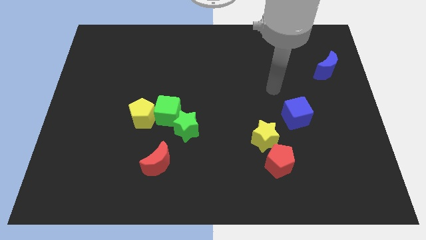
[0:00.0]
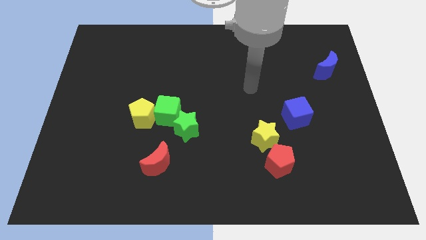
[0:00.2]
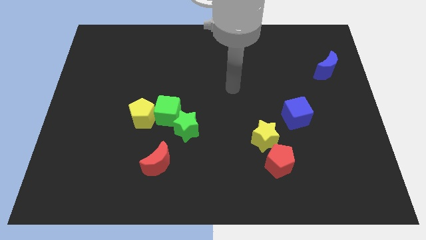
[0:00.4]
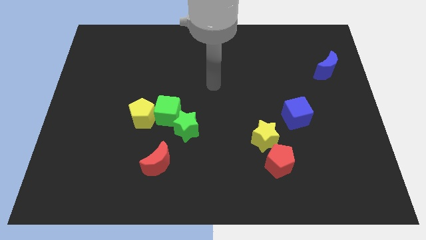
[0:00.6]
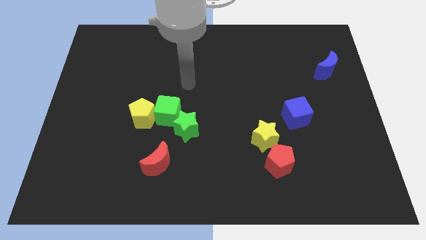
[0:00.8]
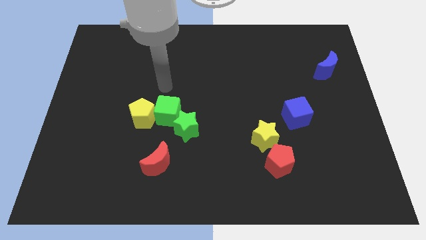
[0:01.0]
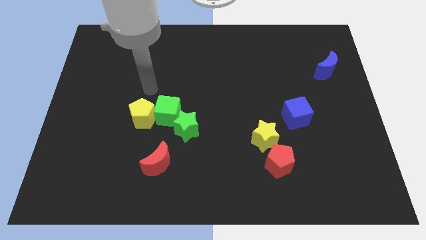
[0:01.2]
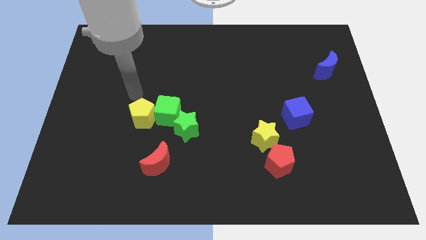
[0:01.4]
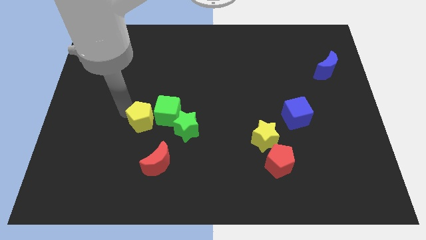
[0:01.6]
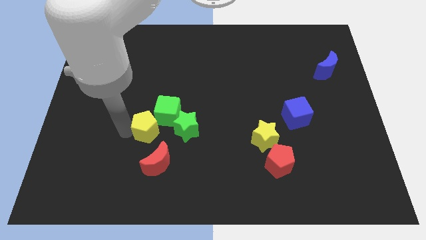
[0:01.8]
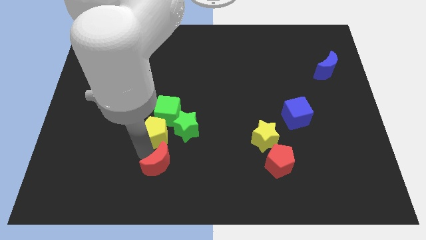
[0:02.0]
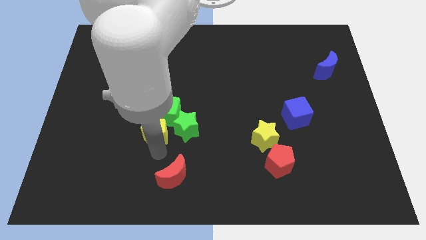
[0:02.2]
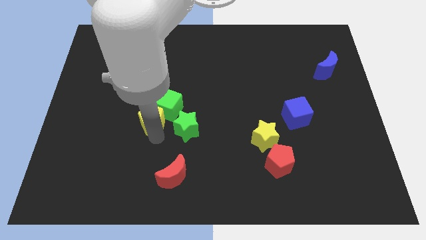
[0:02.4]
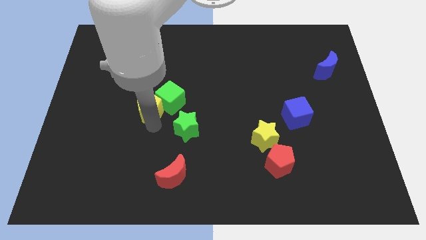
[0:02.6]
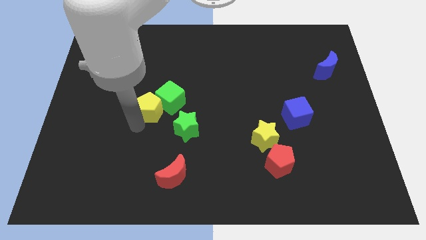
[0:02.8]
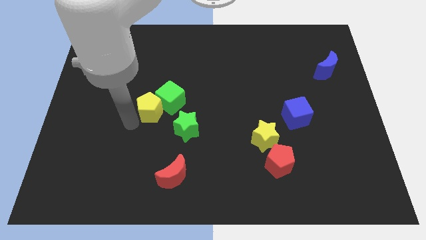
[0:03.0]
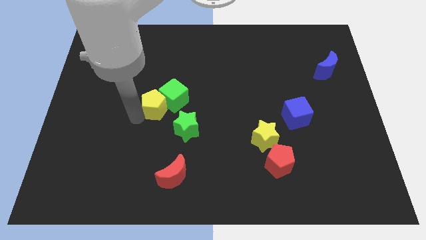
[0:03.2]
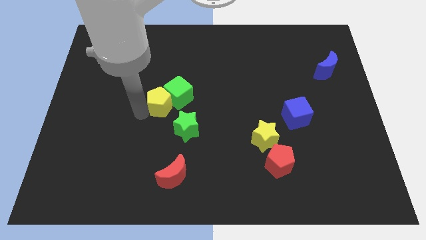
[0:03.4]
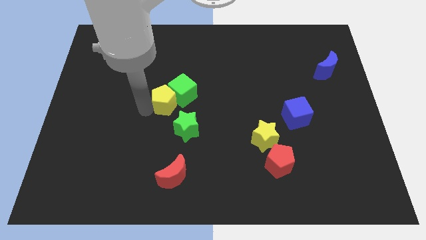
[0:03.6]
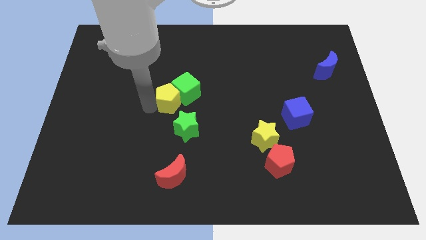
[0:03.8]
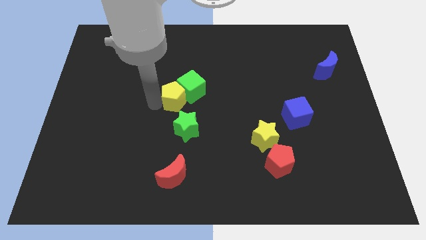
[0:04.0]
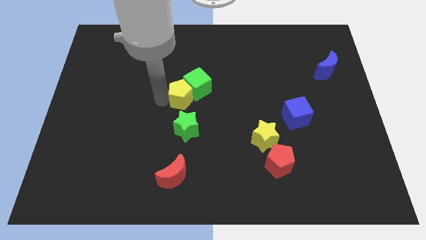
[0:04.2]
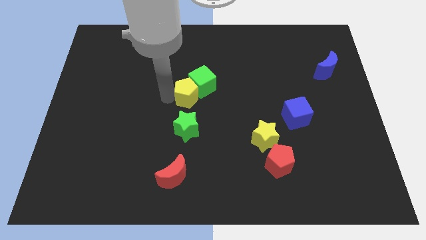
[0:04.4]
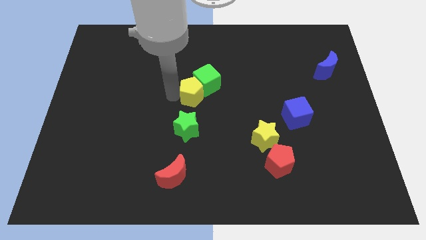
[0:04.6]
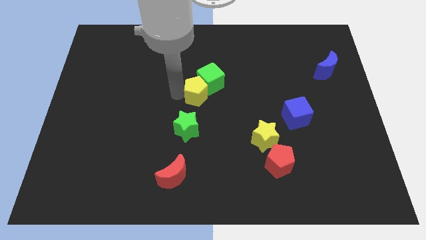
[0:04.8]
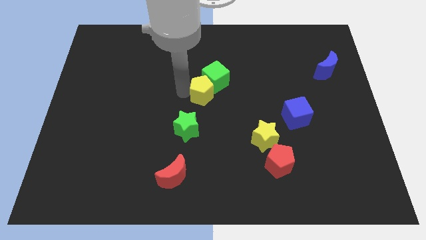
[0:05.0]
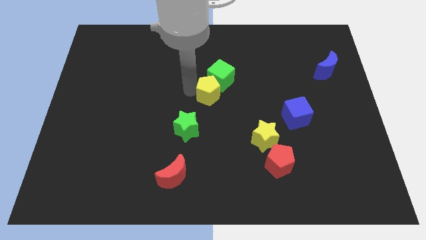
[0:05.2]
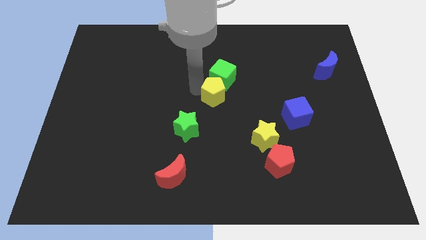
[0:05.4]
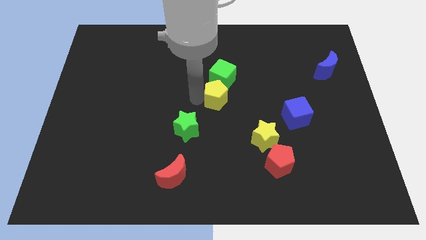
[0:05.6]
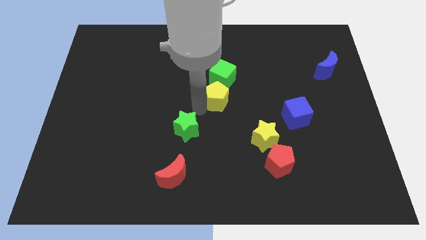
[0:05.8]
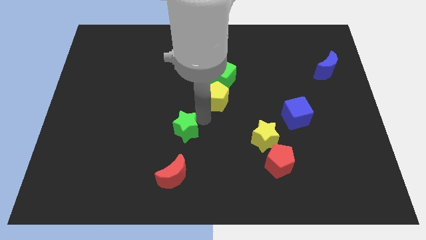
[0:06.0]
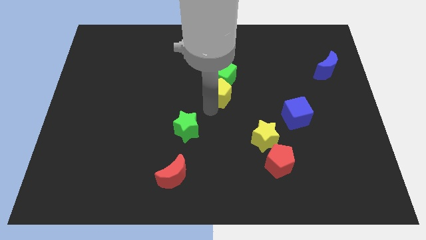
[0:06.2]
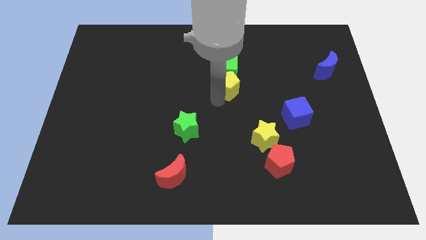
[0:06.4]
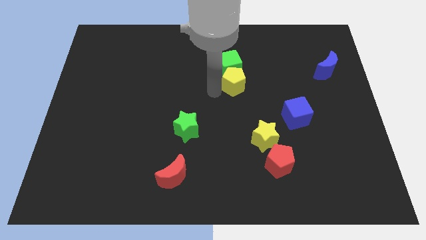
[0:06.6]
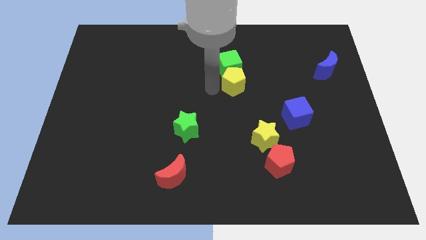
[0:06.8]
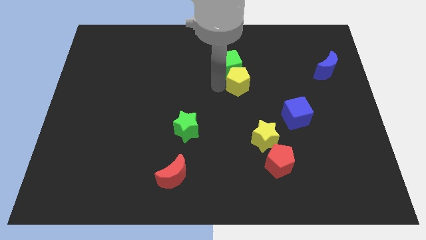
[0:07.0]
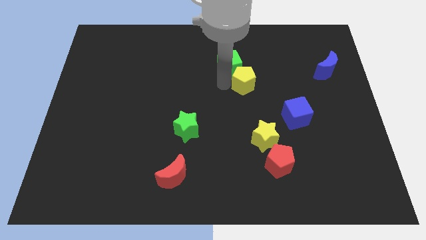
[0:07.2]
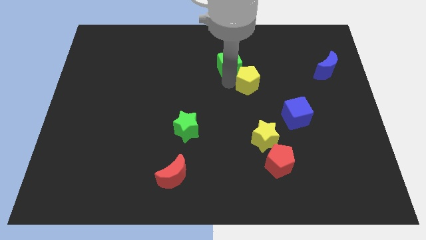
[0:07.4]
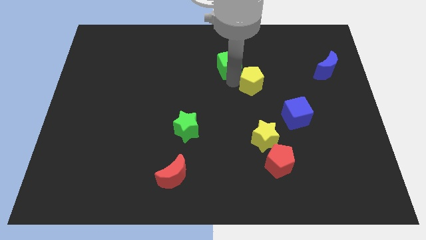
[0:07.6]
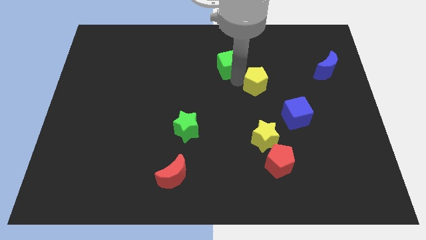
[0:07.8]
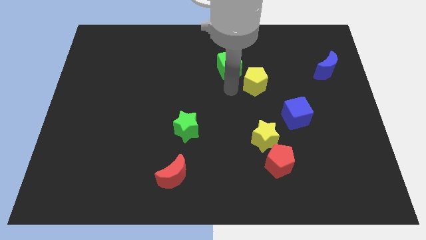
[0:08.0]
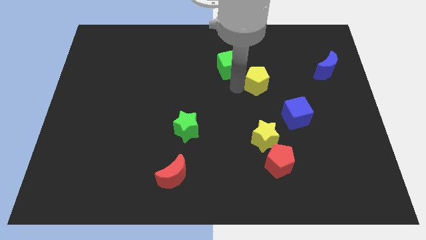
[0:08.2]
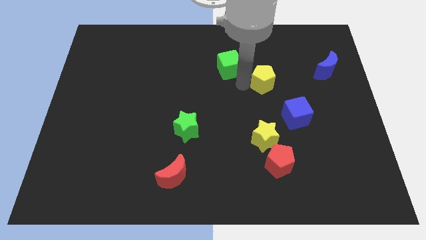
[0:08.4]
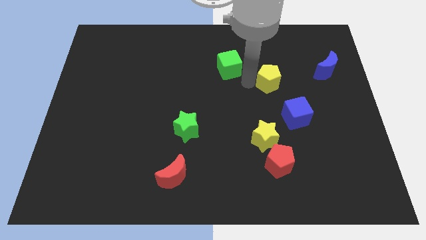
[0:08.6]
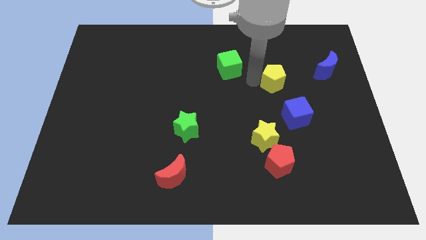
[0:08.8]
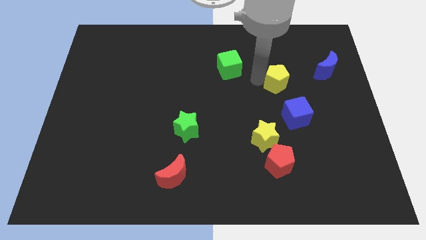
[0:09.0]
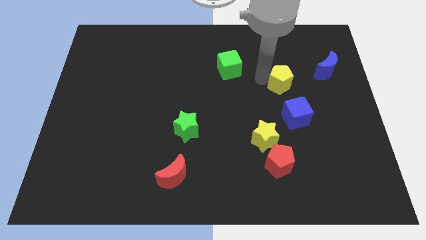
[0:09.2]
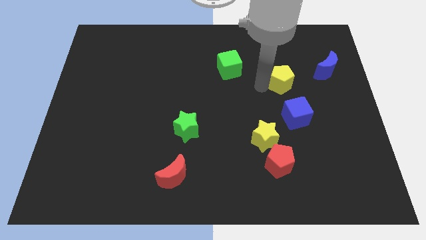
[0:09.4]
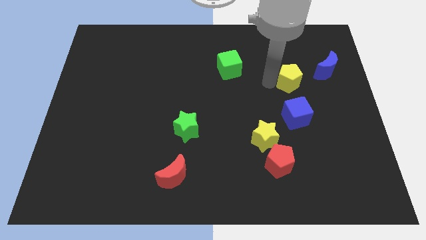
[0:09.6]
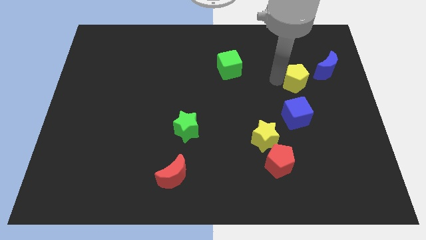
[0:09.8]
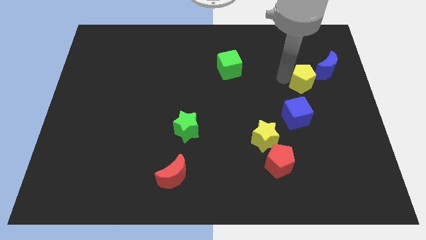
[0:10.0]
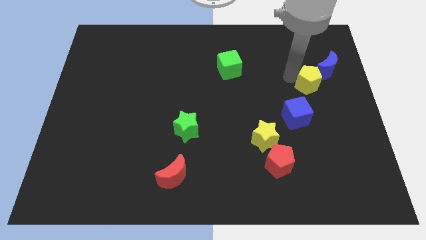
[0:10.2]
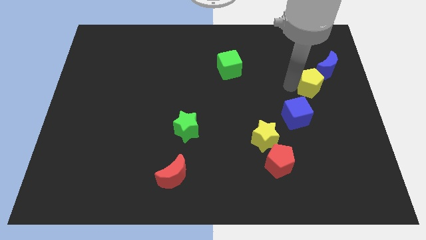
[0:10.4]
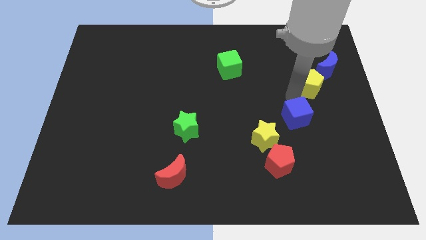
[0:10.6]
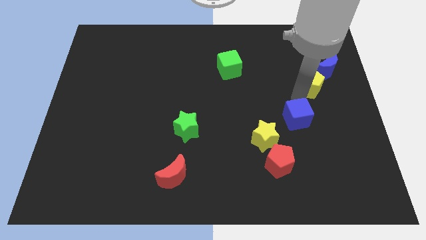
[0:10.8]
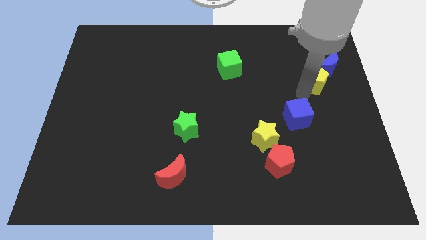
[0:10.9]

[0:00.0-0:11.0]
slide the yellow pentagon towards the blue moon

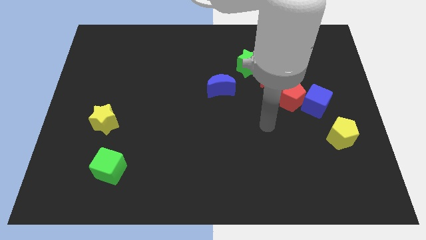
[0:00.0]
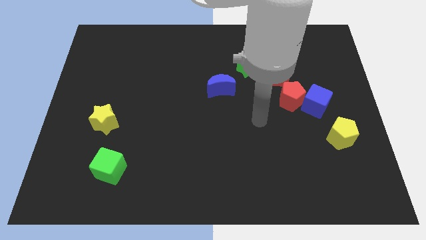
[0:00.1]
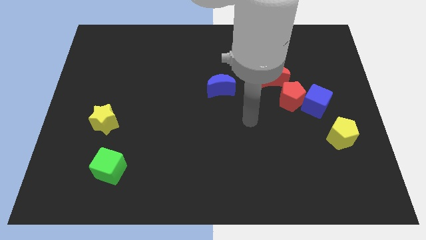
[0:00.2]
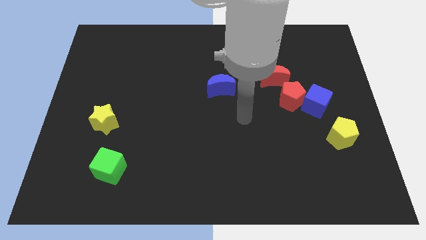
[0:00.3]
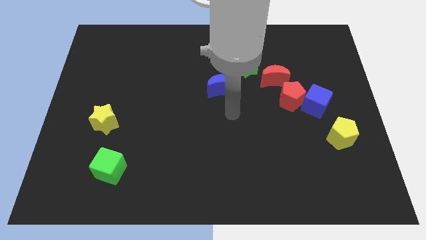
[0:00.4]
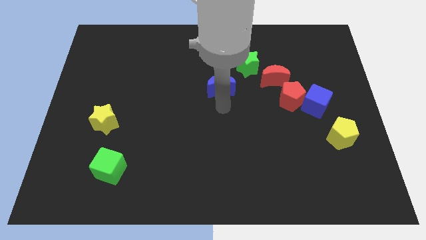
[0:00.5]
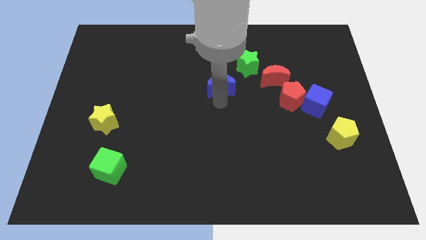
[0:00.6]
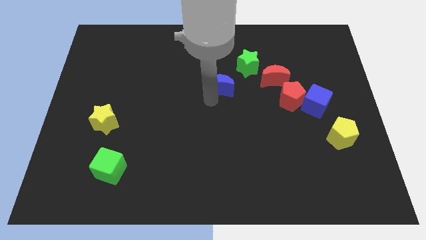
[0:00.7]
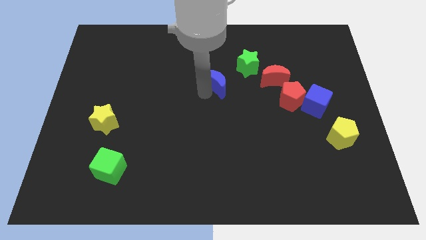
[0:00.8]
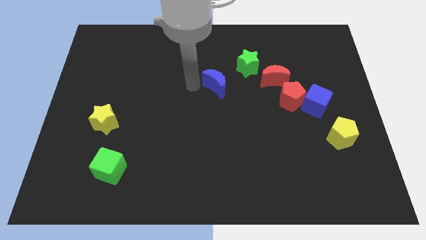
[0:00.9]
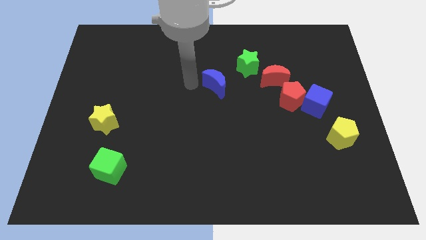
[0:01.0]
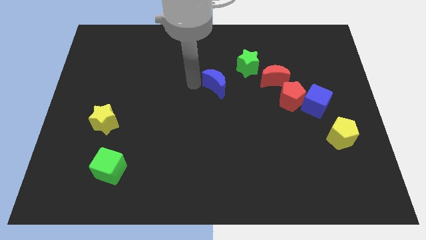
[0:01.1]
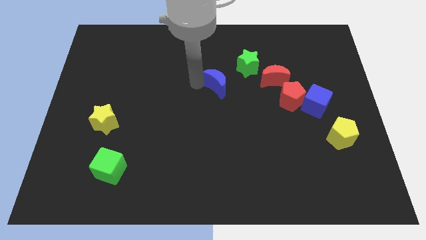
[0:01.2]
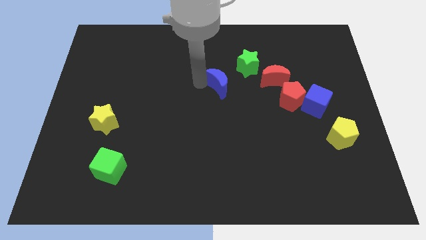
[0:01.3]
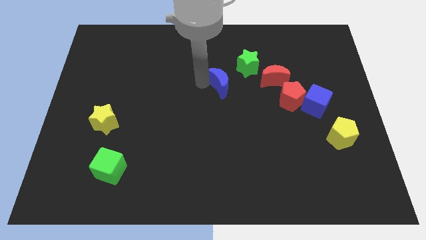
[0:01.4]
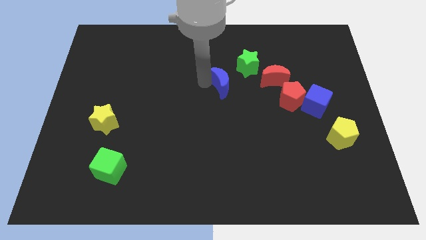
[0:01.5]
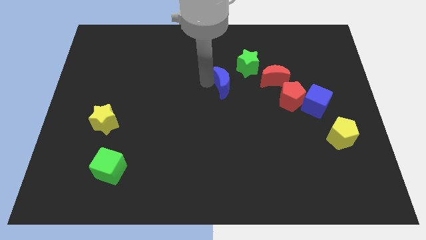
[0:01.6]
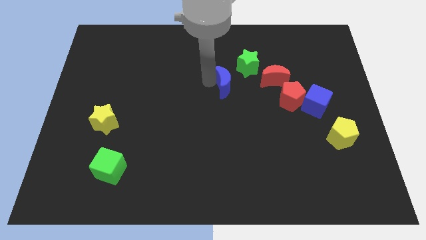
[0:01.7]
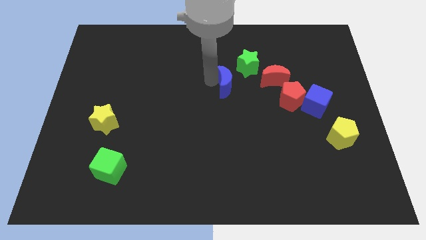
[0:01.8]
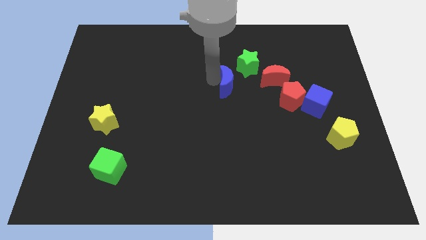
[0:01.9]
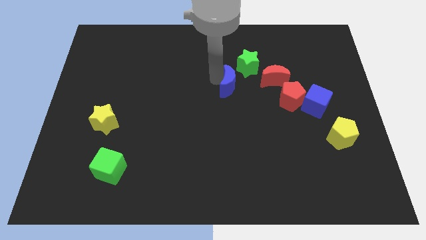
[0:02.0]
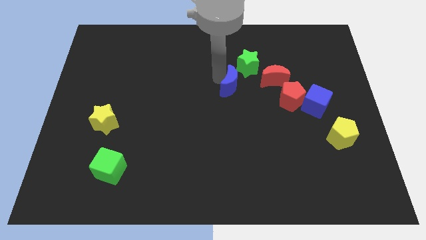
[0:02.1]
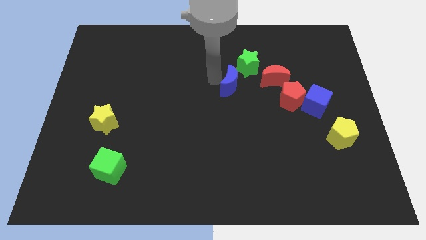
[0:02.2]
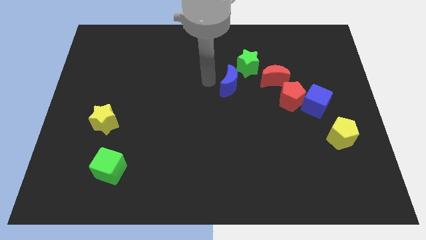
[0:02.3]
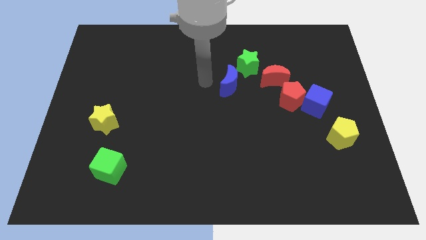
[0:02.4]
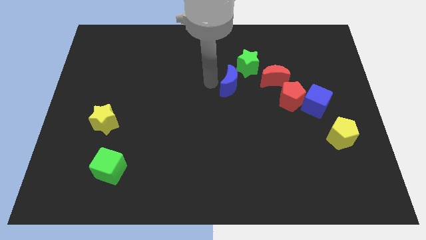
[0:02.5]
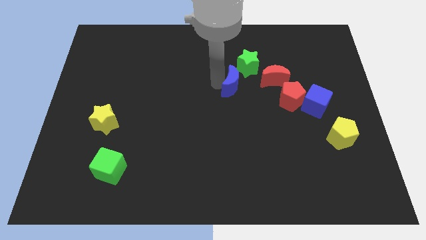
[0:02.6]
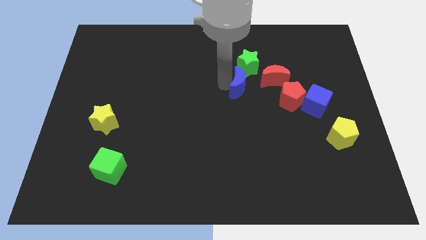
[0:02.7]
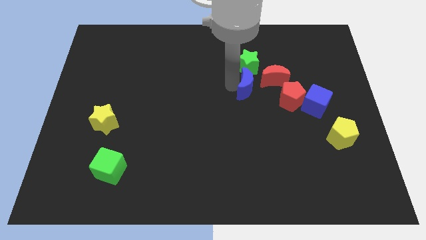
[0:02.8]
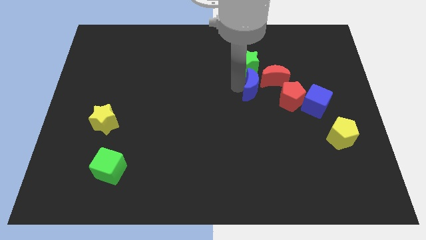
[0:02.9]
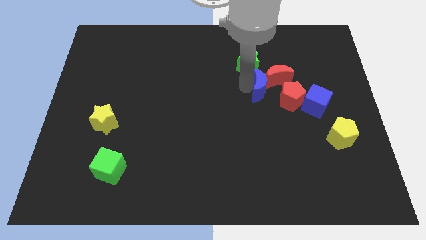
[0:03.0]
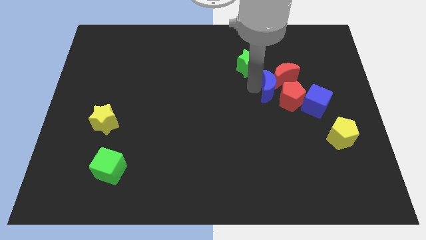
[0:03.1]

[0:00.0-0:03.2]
slide the blue moon towards the red pentagon
